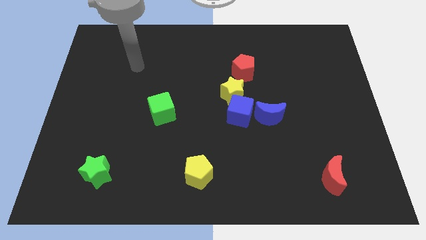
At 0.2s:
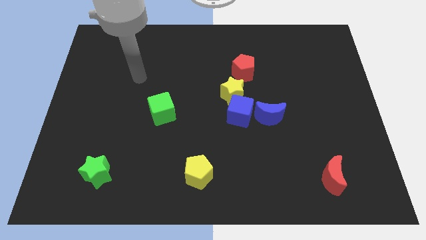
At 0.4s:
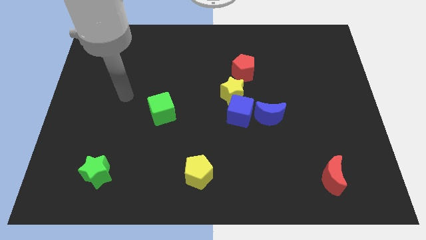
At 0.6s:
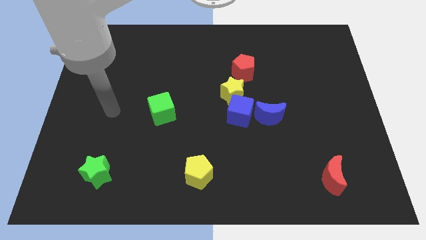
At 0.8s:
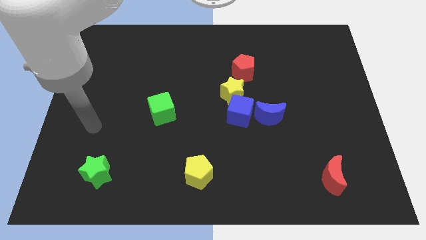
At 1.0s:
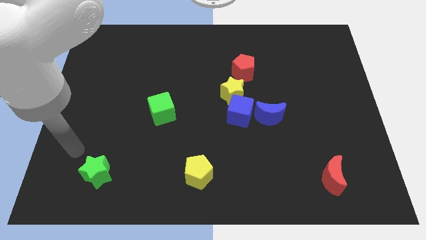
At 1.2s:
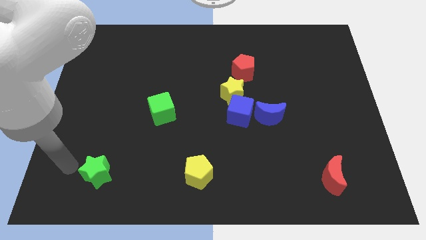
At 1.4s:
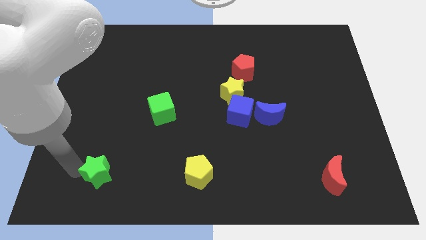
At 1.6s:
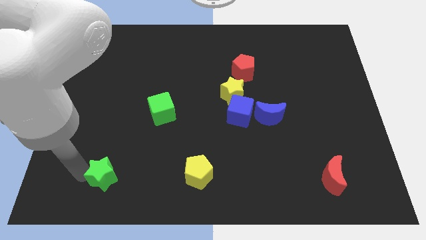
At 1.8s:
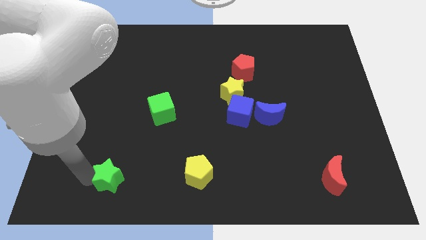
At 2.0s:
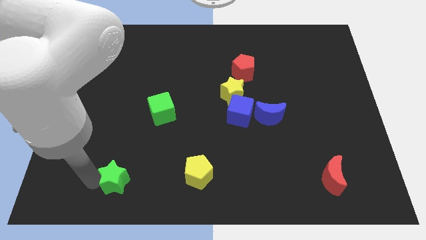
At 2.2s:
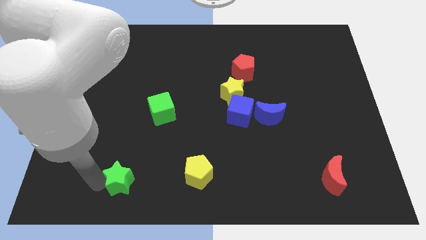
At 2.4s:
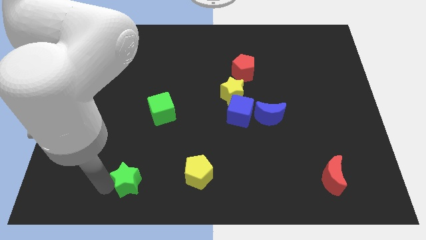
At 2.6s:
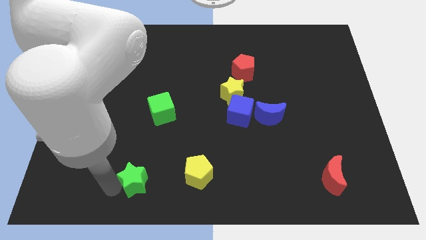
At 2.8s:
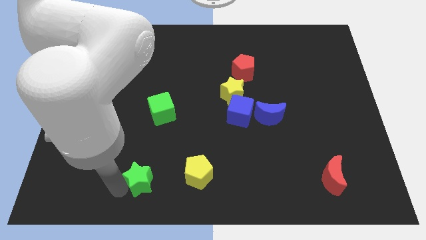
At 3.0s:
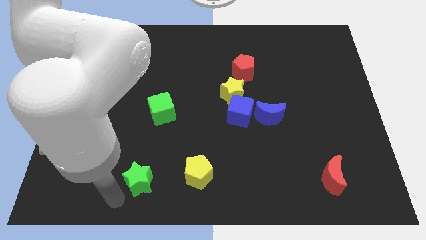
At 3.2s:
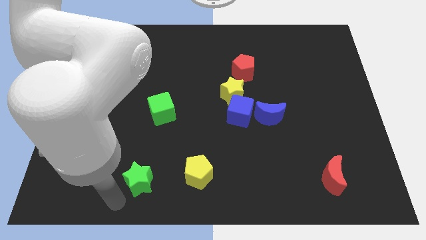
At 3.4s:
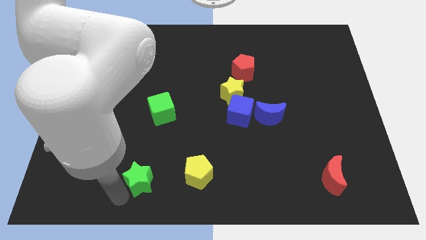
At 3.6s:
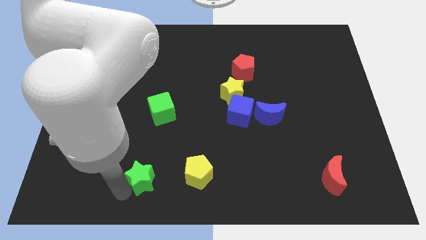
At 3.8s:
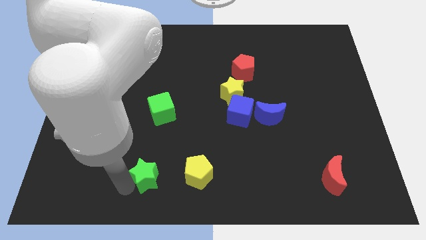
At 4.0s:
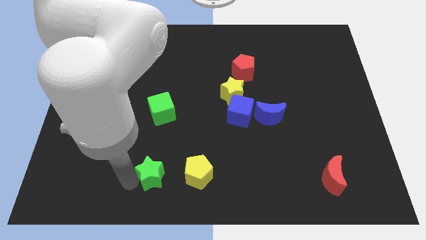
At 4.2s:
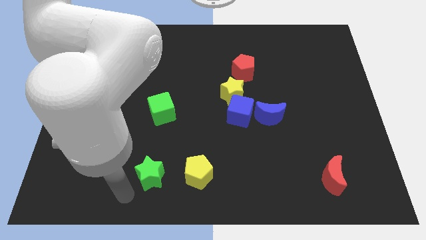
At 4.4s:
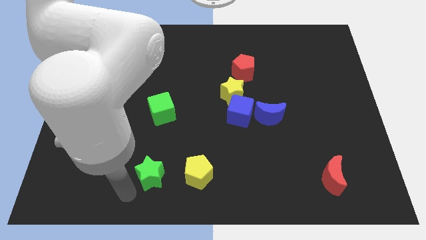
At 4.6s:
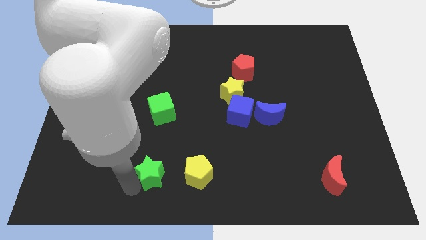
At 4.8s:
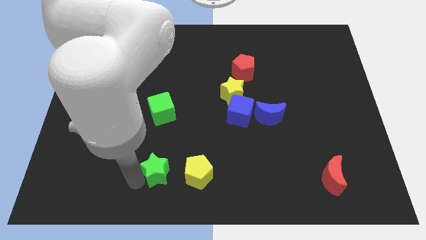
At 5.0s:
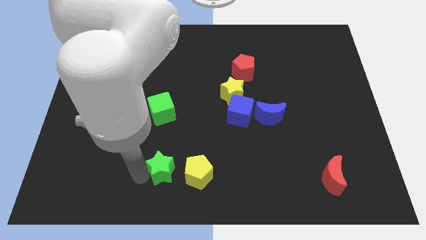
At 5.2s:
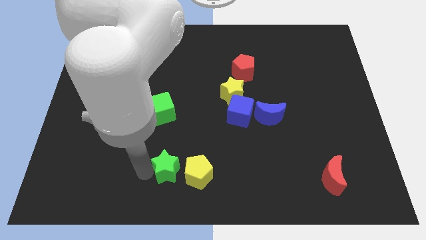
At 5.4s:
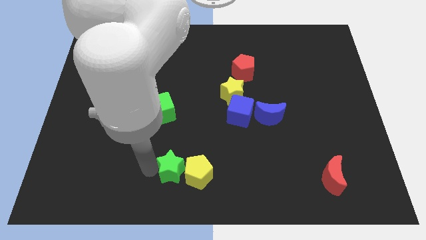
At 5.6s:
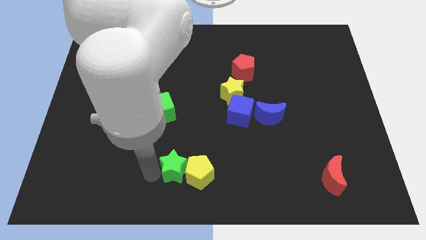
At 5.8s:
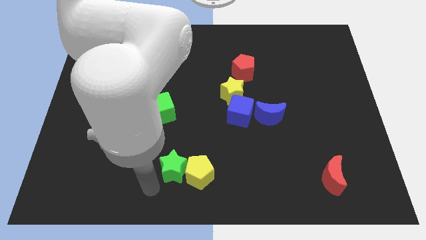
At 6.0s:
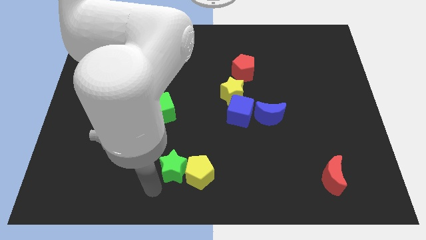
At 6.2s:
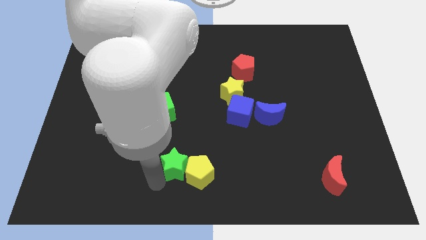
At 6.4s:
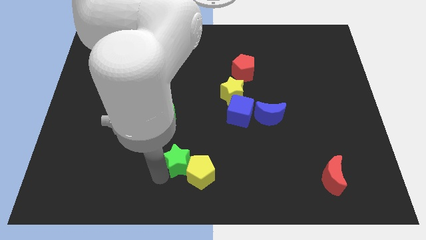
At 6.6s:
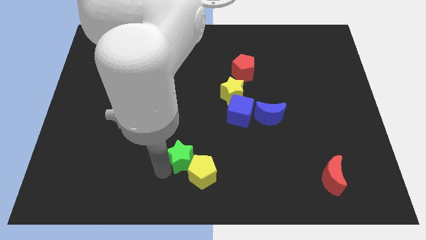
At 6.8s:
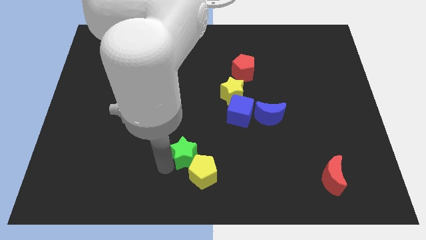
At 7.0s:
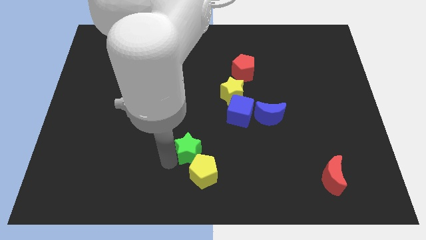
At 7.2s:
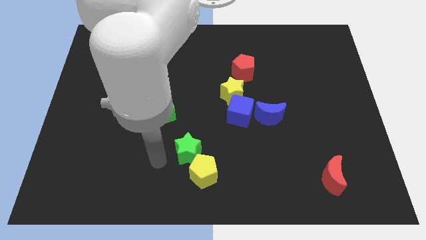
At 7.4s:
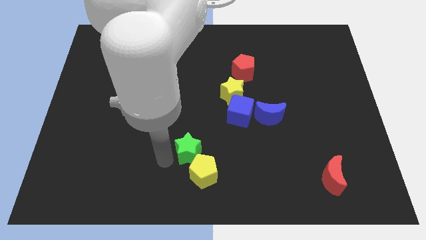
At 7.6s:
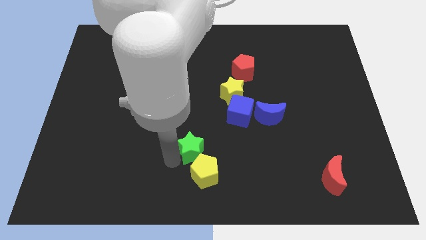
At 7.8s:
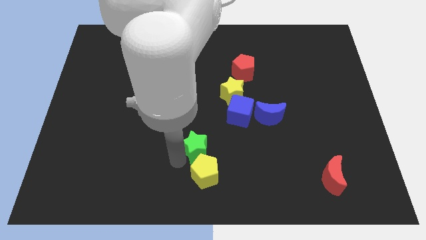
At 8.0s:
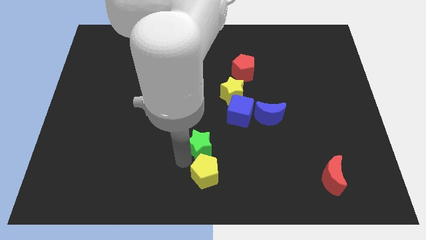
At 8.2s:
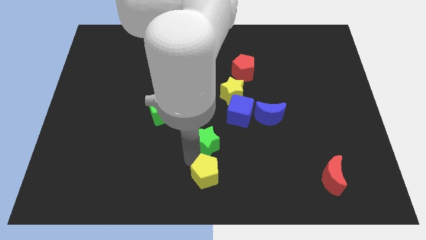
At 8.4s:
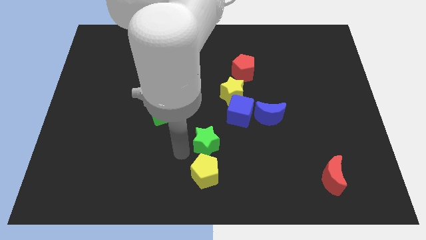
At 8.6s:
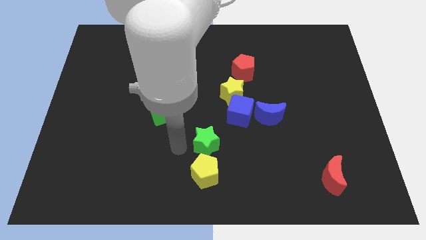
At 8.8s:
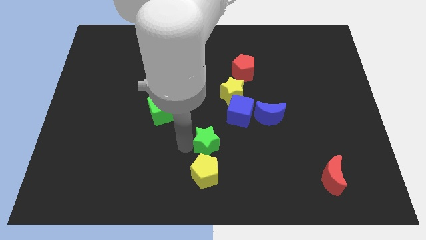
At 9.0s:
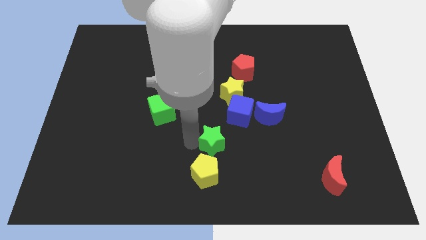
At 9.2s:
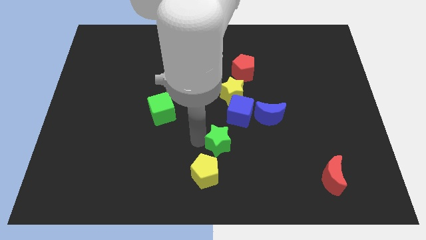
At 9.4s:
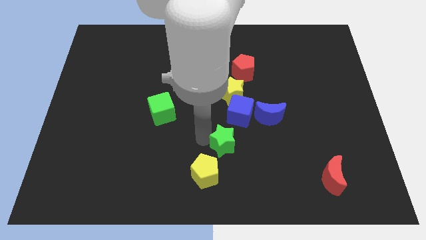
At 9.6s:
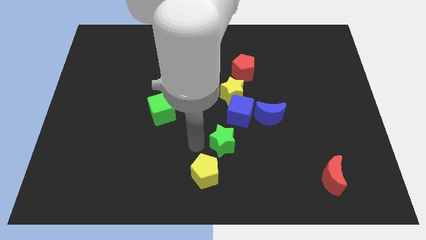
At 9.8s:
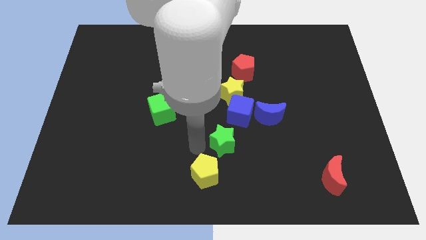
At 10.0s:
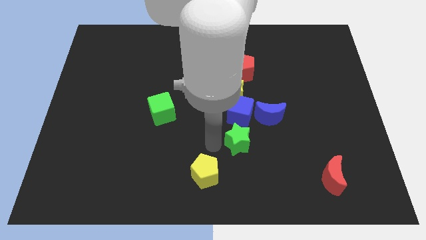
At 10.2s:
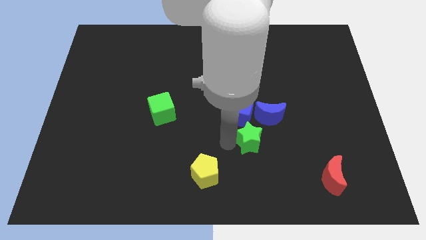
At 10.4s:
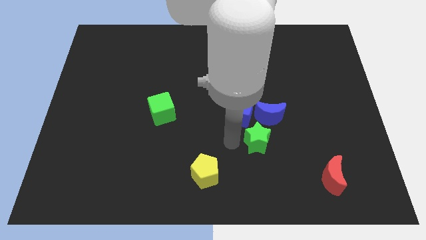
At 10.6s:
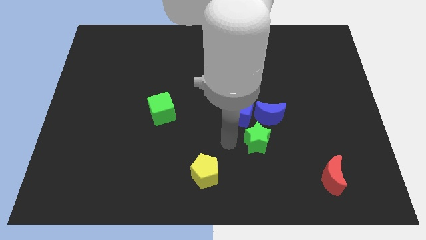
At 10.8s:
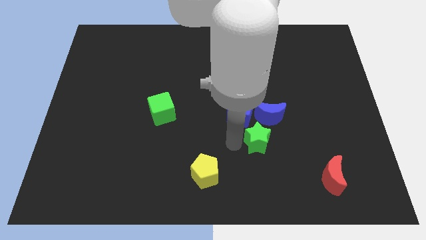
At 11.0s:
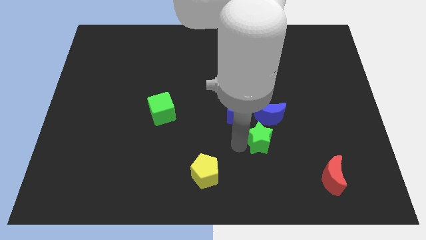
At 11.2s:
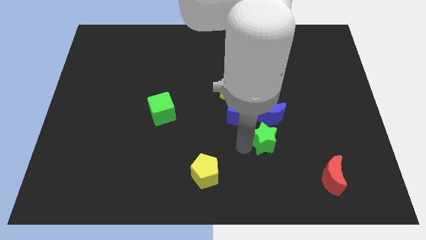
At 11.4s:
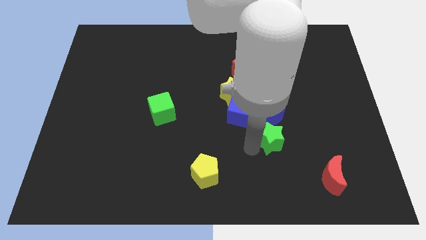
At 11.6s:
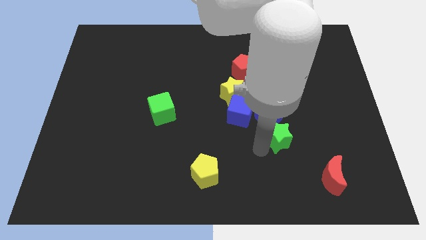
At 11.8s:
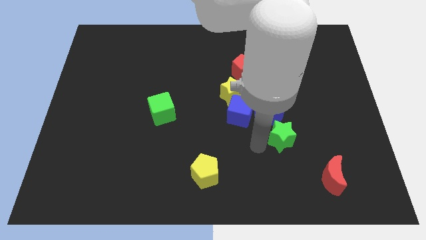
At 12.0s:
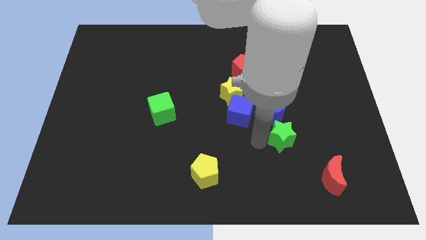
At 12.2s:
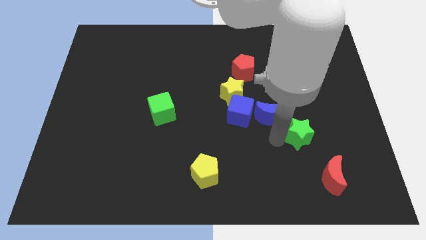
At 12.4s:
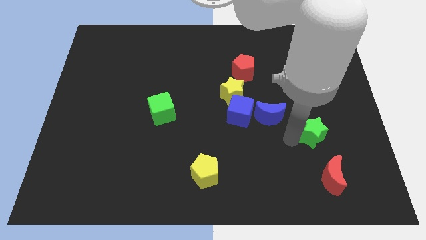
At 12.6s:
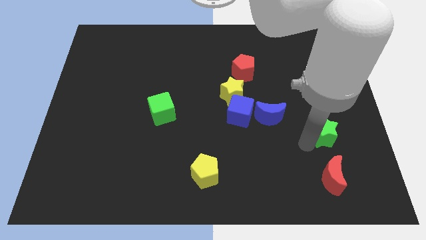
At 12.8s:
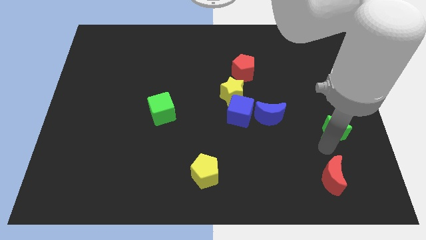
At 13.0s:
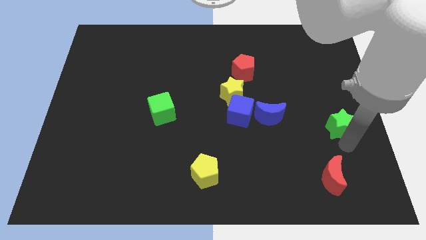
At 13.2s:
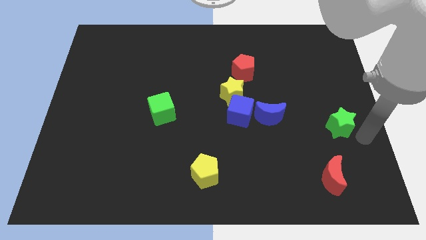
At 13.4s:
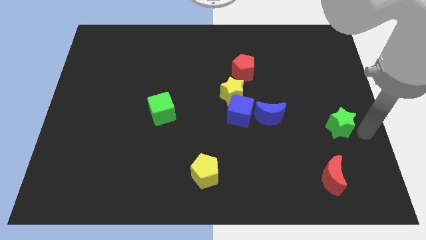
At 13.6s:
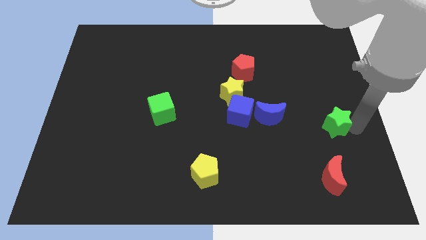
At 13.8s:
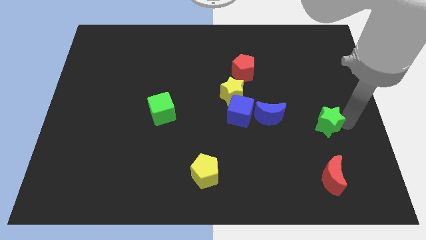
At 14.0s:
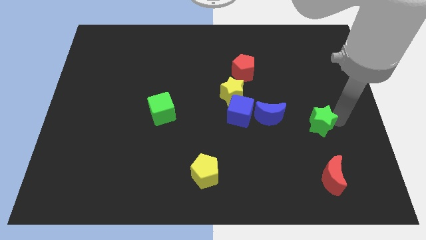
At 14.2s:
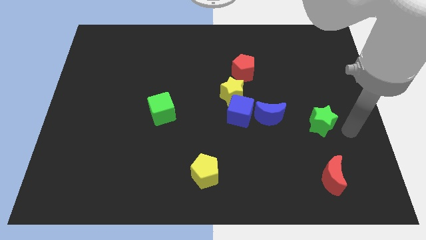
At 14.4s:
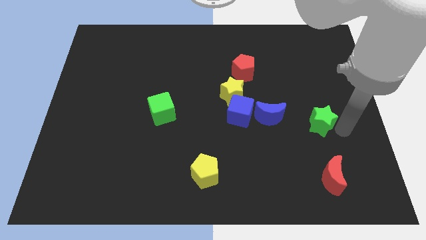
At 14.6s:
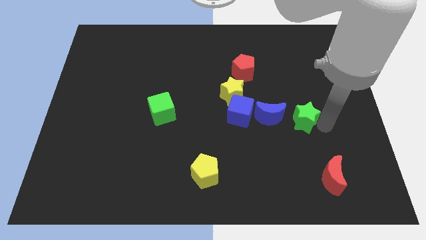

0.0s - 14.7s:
put the green star just right of the blue cube
